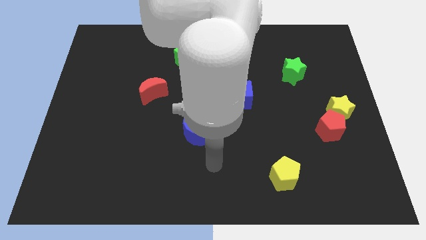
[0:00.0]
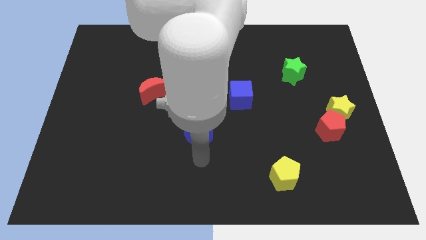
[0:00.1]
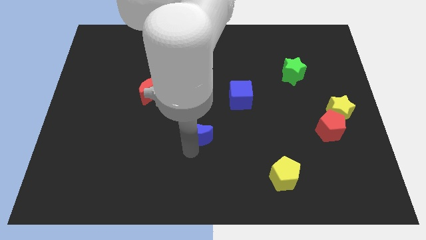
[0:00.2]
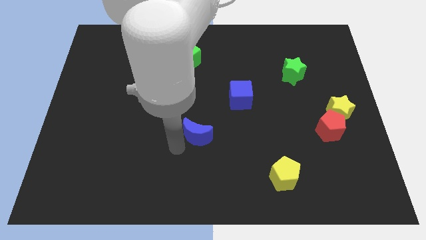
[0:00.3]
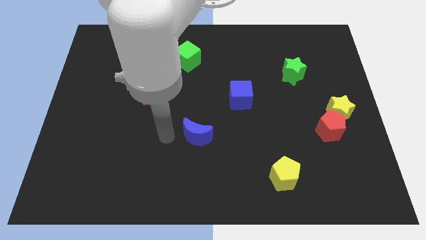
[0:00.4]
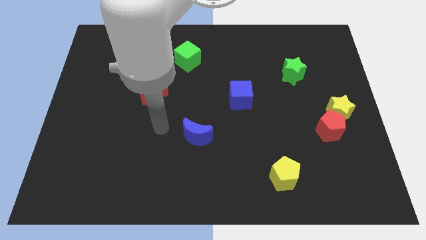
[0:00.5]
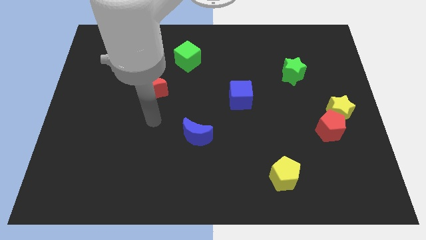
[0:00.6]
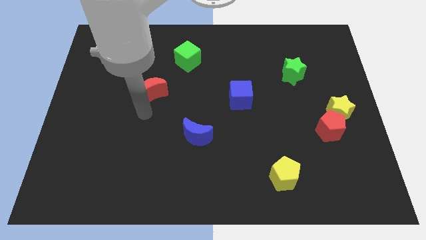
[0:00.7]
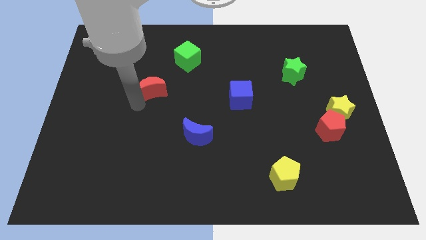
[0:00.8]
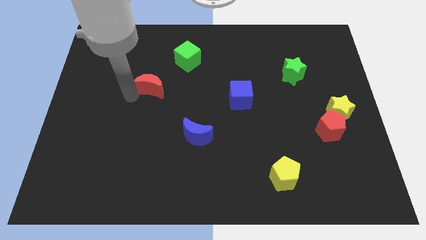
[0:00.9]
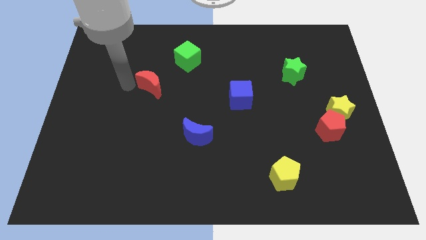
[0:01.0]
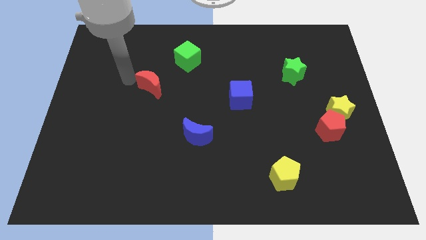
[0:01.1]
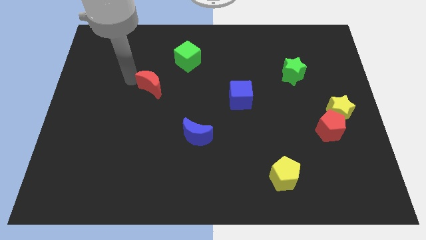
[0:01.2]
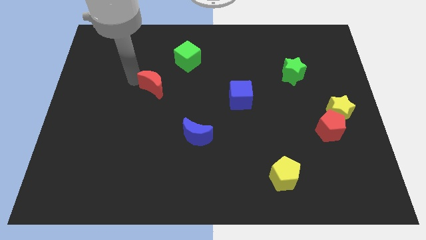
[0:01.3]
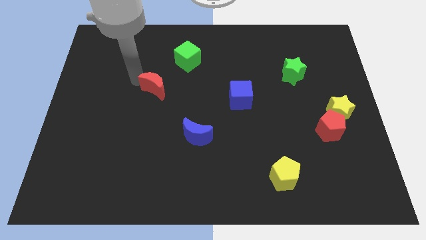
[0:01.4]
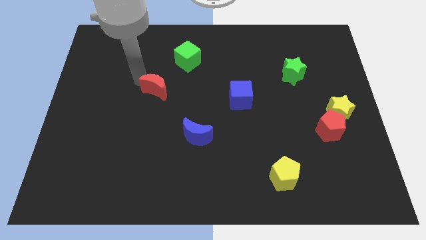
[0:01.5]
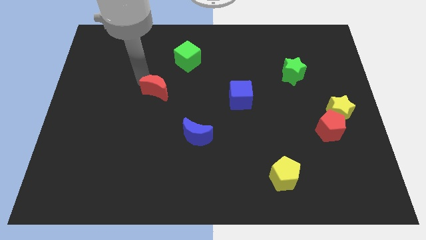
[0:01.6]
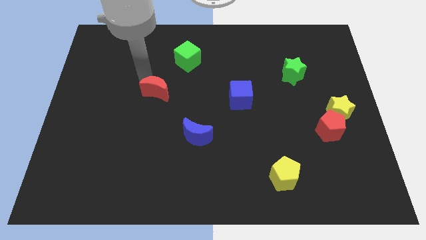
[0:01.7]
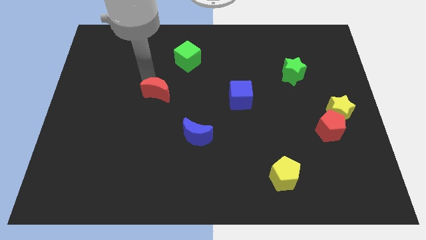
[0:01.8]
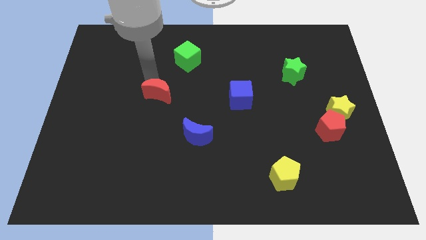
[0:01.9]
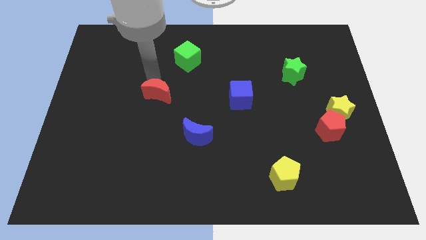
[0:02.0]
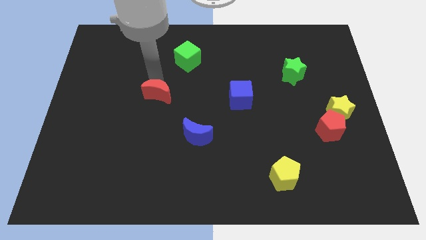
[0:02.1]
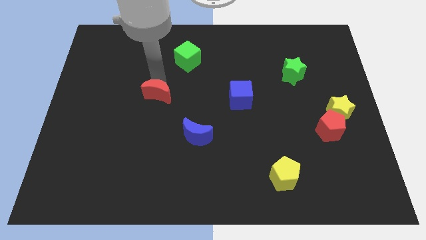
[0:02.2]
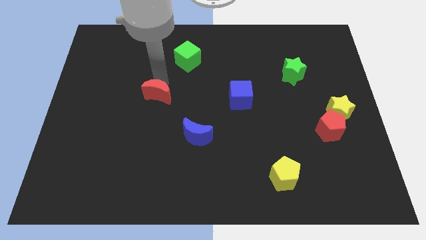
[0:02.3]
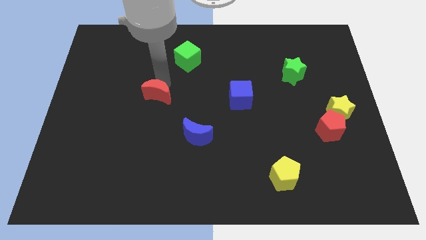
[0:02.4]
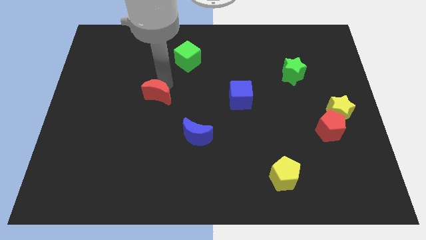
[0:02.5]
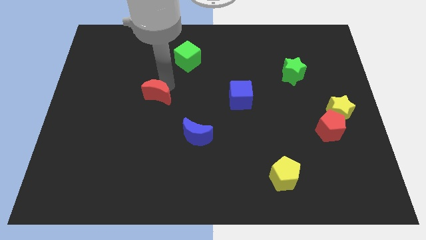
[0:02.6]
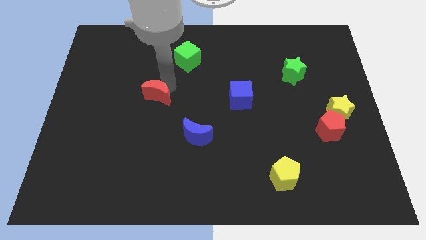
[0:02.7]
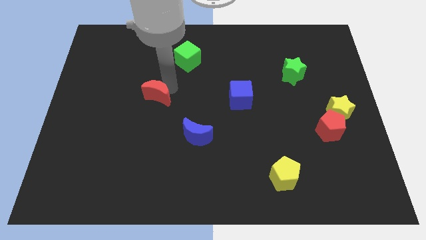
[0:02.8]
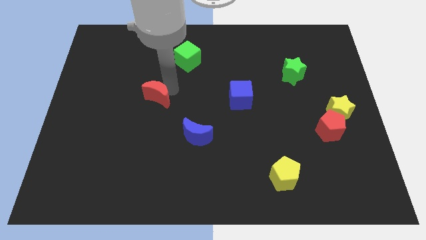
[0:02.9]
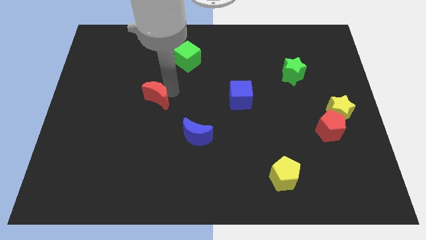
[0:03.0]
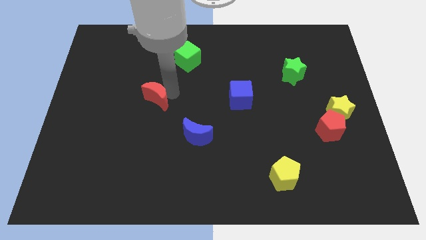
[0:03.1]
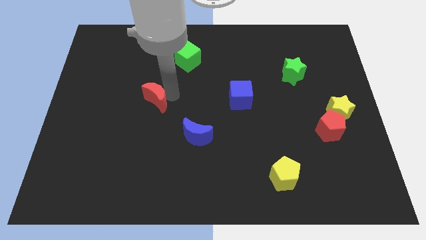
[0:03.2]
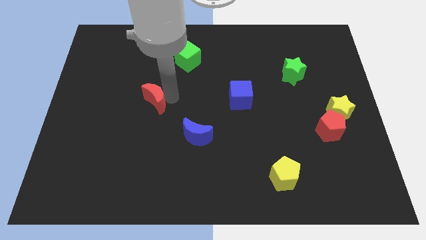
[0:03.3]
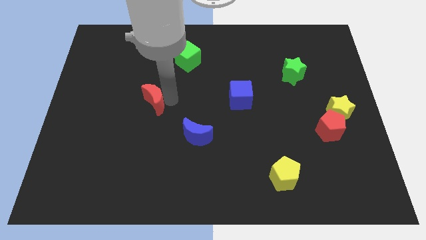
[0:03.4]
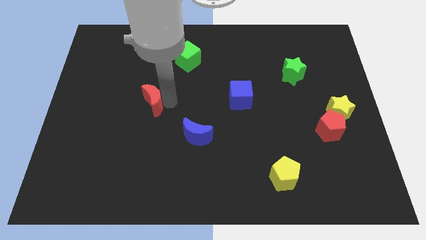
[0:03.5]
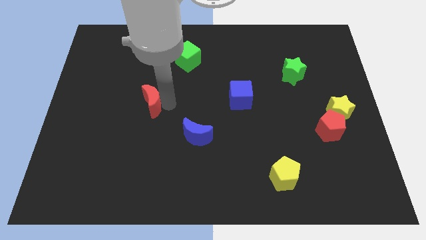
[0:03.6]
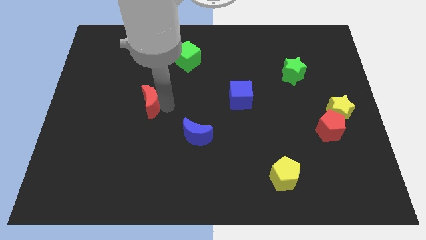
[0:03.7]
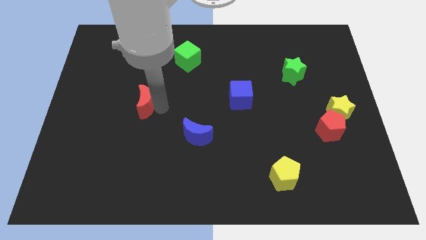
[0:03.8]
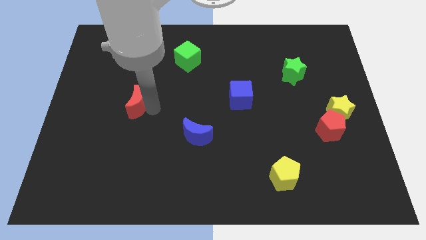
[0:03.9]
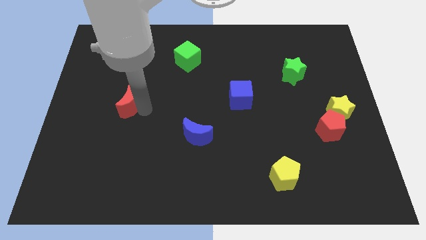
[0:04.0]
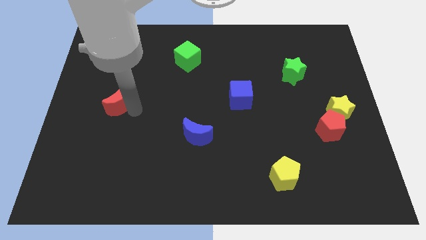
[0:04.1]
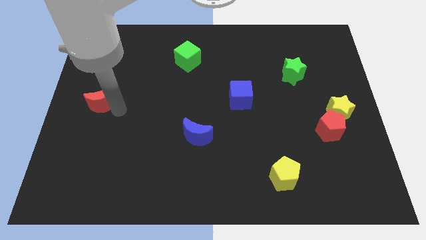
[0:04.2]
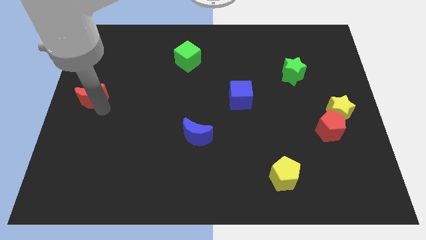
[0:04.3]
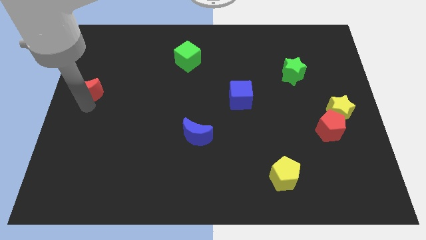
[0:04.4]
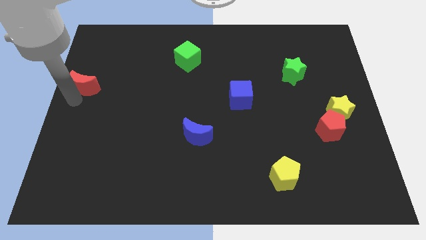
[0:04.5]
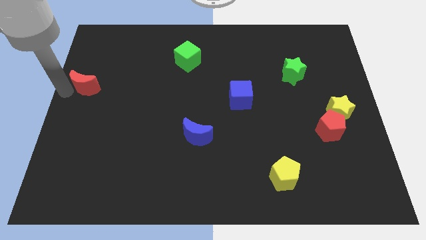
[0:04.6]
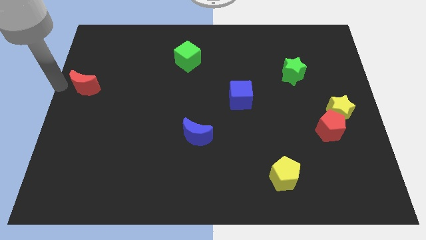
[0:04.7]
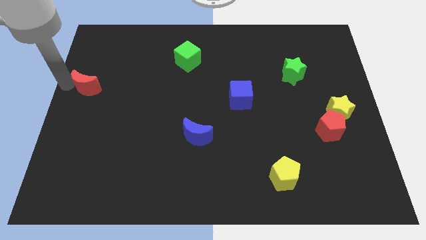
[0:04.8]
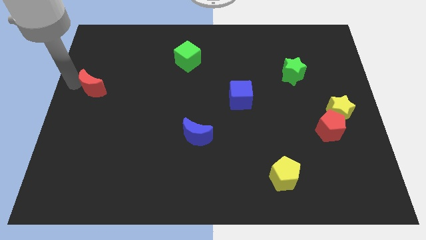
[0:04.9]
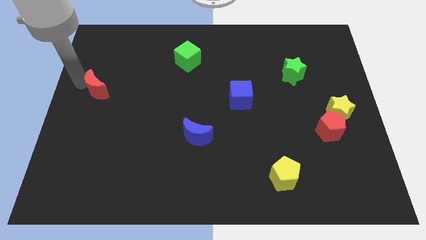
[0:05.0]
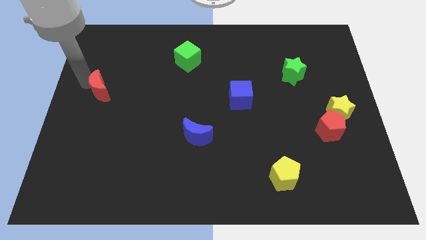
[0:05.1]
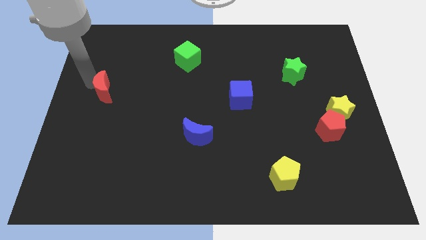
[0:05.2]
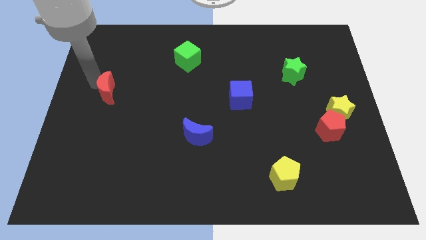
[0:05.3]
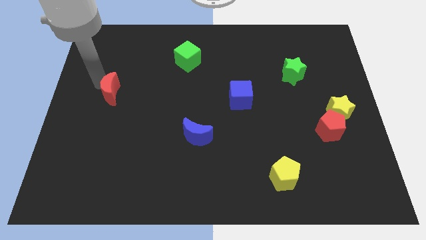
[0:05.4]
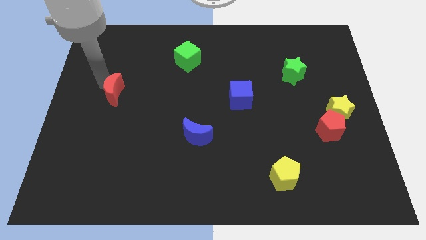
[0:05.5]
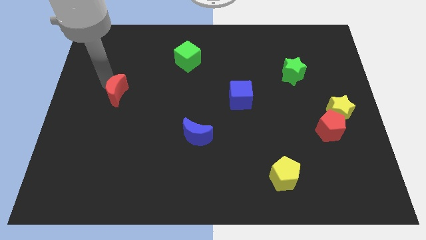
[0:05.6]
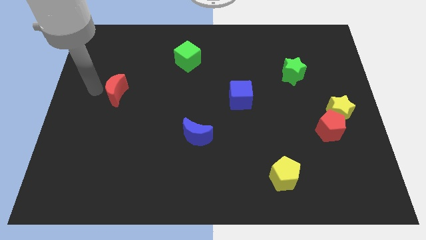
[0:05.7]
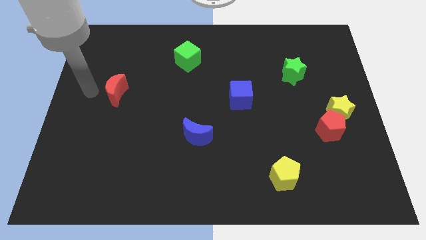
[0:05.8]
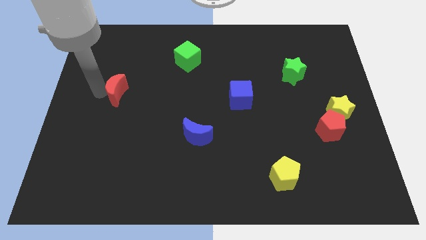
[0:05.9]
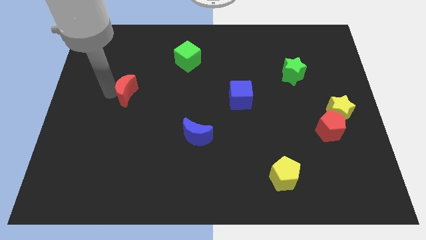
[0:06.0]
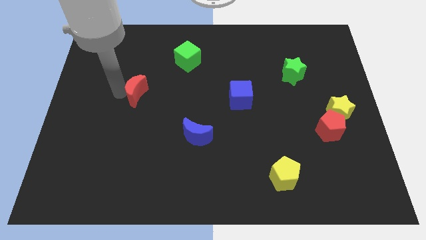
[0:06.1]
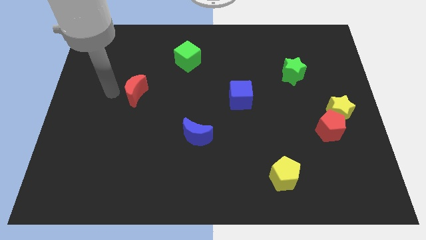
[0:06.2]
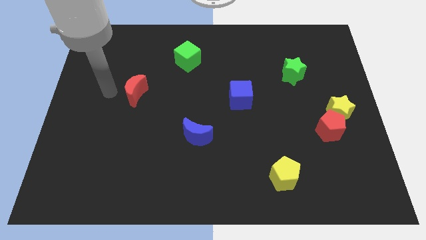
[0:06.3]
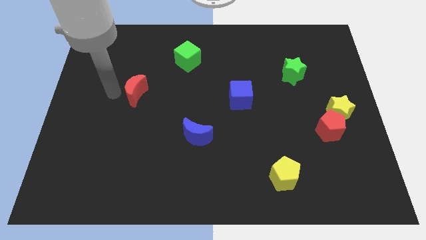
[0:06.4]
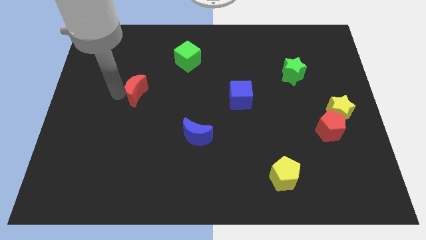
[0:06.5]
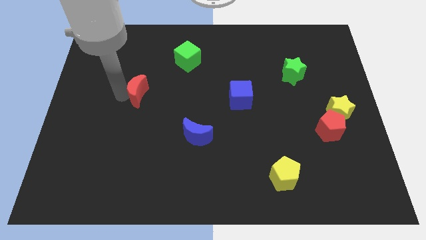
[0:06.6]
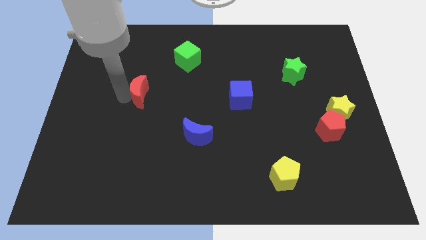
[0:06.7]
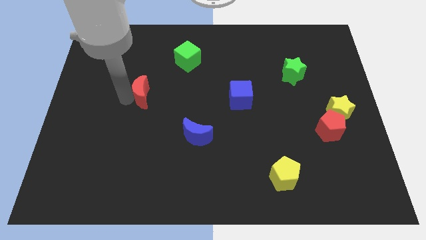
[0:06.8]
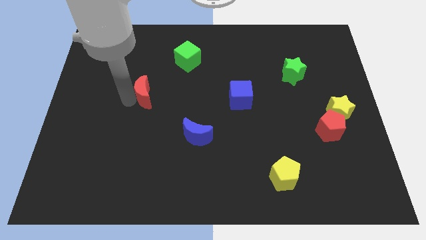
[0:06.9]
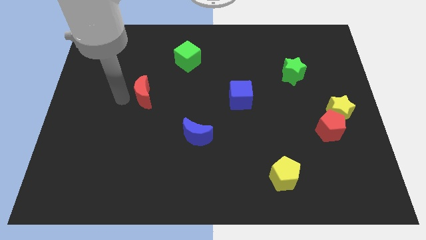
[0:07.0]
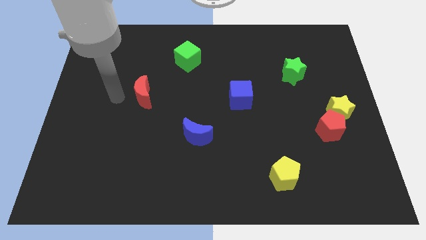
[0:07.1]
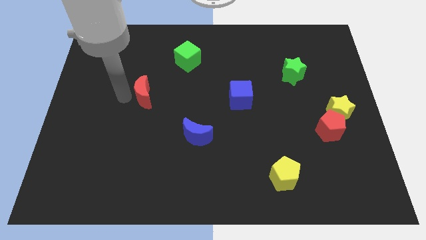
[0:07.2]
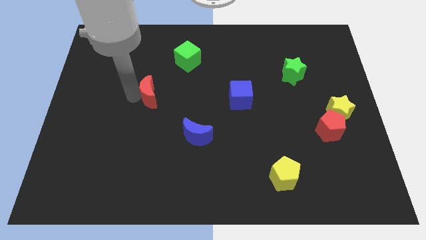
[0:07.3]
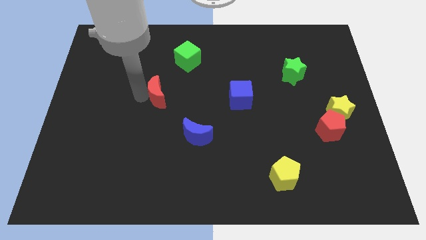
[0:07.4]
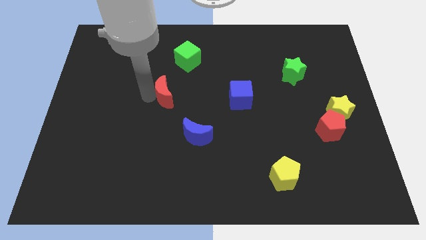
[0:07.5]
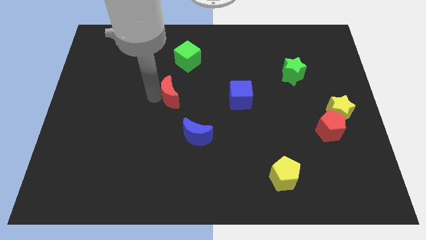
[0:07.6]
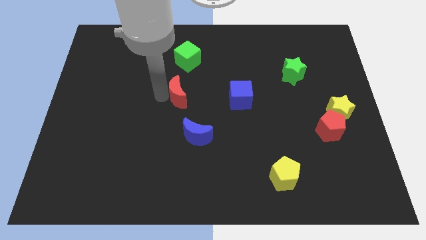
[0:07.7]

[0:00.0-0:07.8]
move the red moon just left of the blue cube
